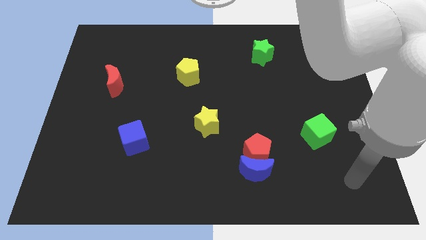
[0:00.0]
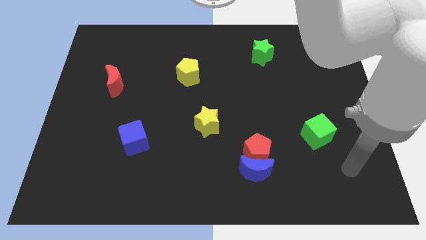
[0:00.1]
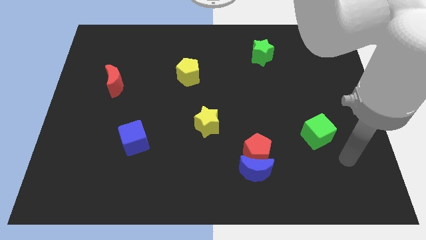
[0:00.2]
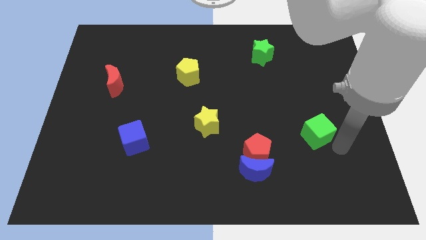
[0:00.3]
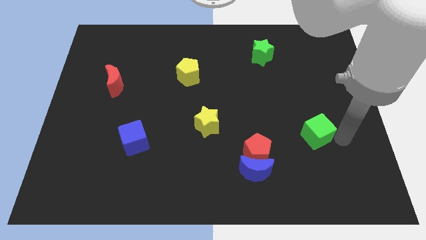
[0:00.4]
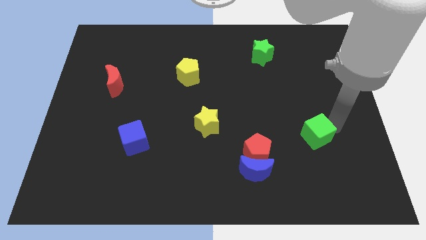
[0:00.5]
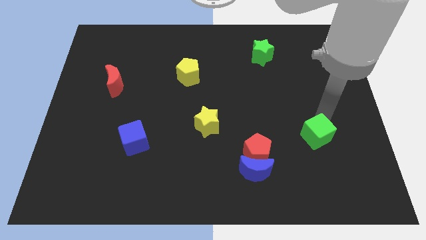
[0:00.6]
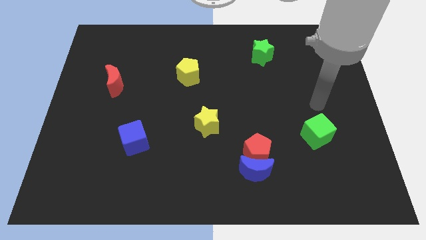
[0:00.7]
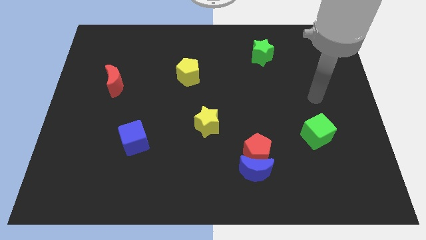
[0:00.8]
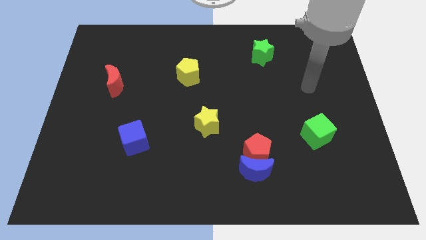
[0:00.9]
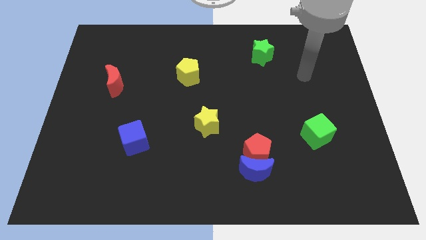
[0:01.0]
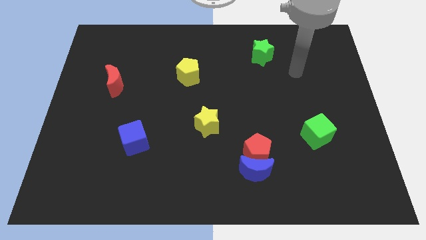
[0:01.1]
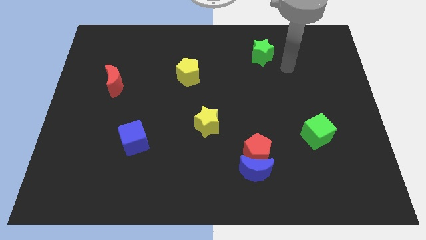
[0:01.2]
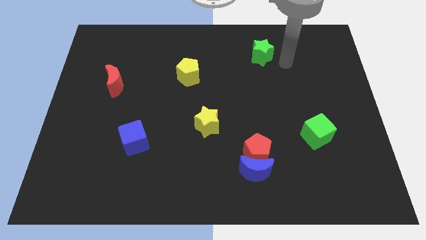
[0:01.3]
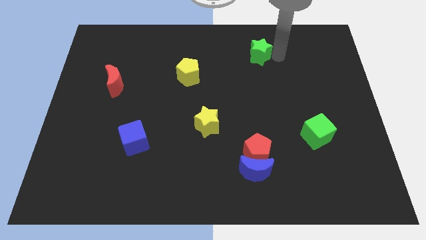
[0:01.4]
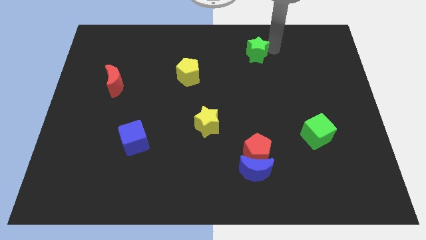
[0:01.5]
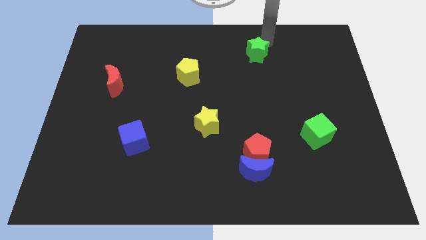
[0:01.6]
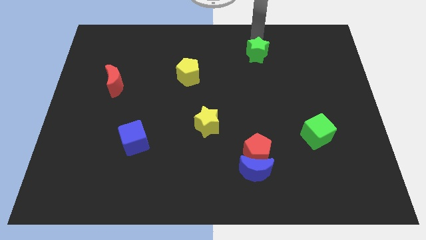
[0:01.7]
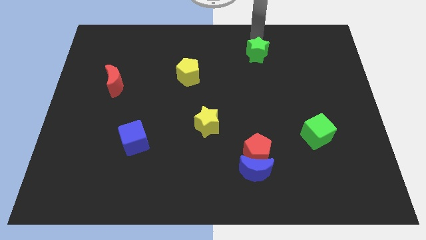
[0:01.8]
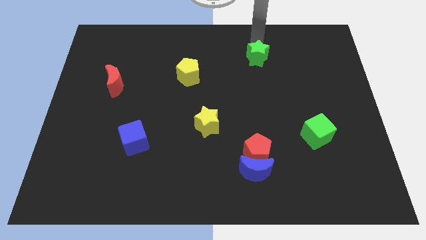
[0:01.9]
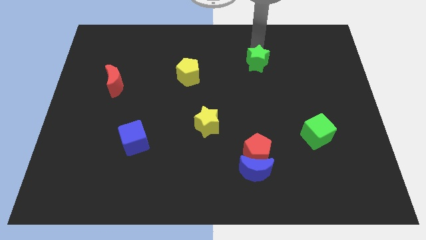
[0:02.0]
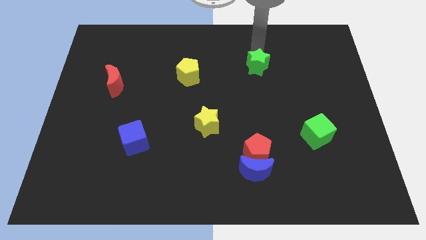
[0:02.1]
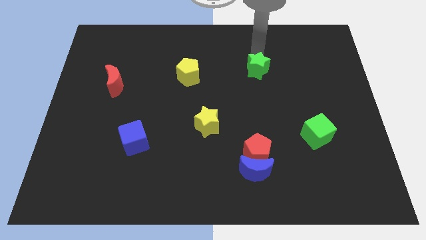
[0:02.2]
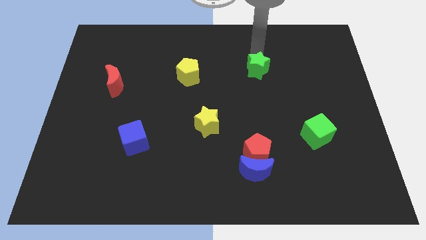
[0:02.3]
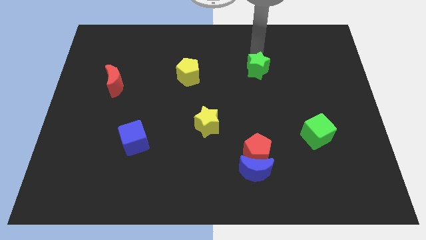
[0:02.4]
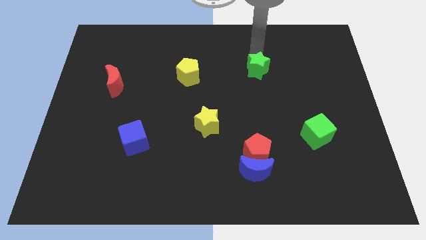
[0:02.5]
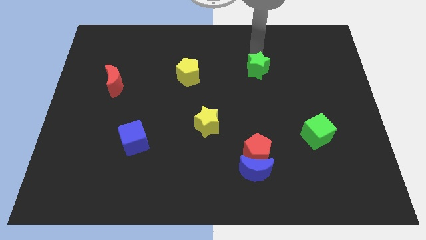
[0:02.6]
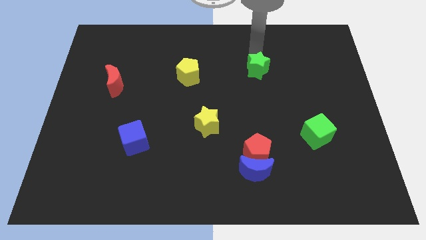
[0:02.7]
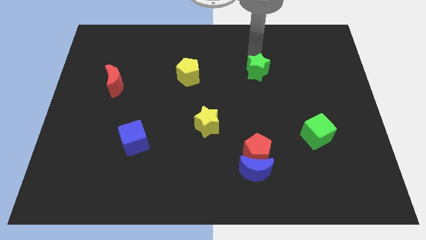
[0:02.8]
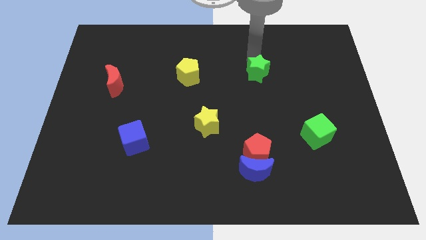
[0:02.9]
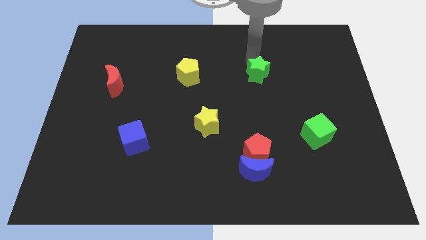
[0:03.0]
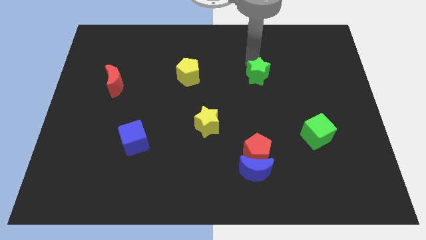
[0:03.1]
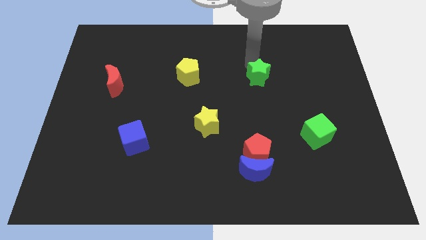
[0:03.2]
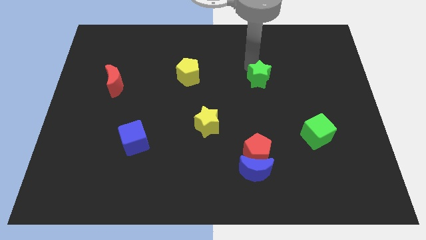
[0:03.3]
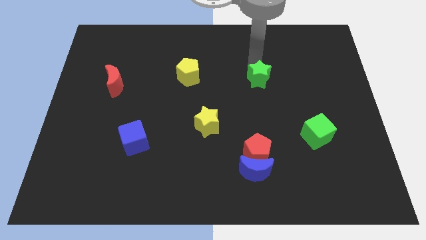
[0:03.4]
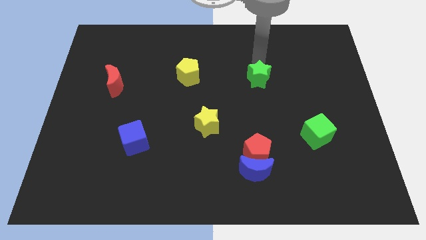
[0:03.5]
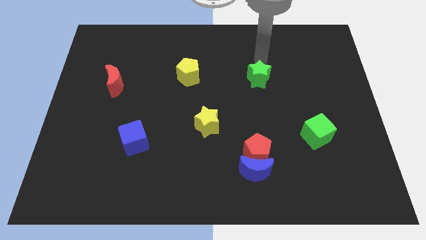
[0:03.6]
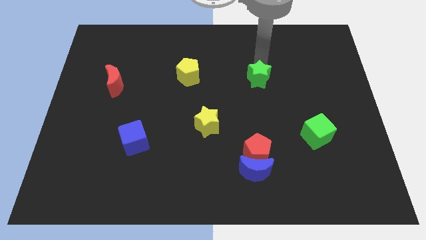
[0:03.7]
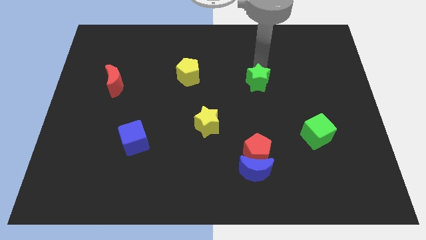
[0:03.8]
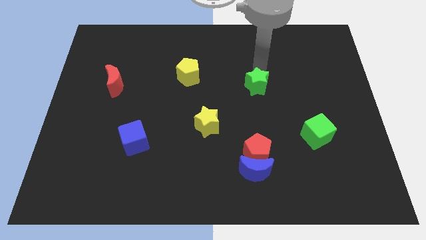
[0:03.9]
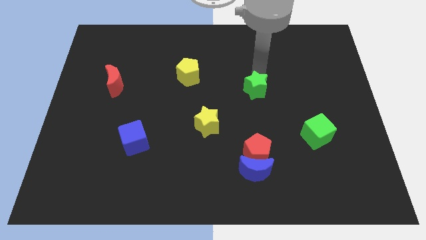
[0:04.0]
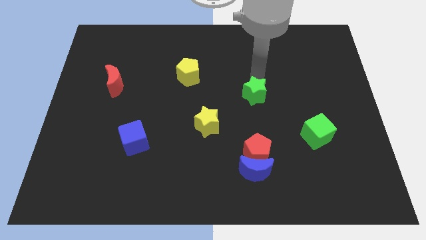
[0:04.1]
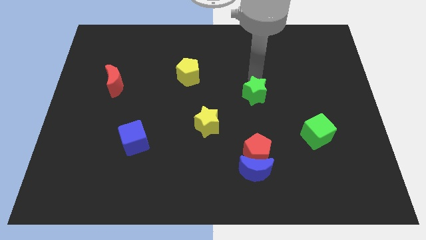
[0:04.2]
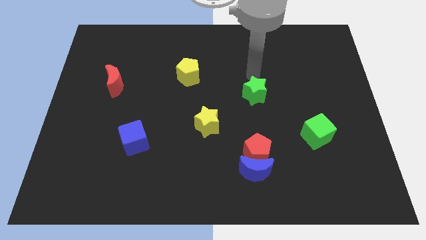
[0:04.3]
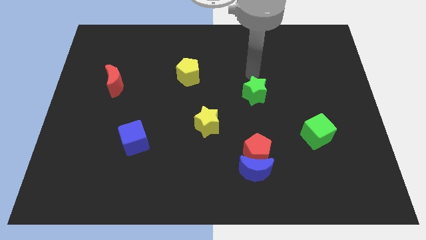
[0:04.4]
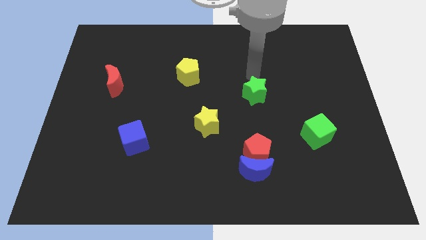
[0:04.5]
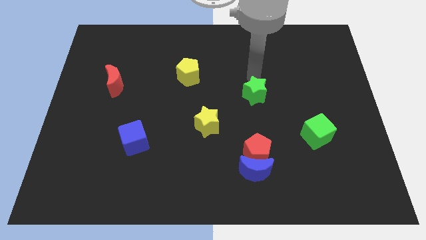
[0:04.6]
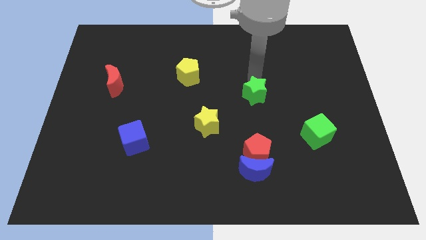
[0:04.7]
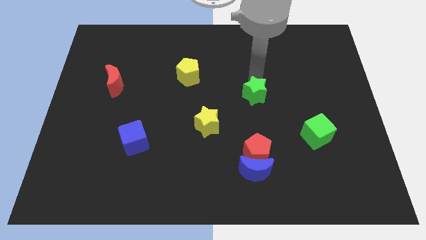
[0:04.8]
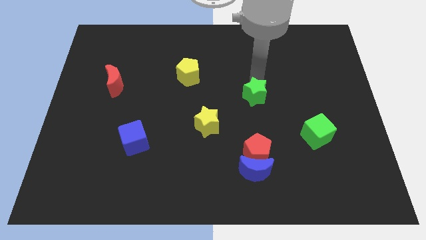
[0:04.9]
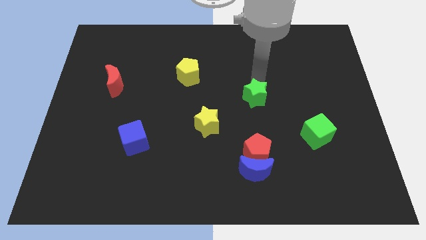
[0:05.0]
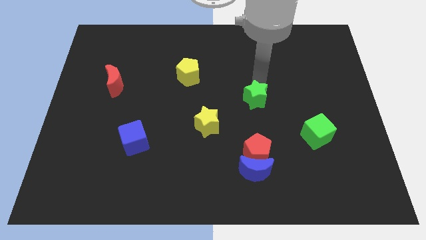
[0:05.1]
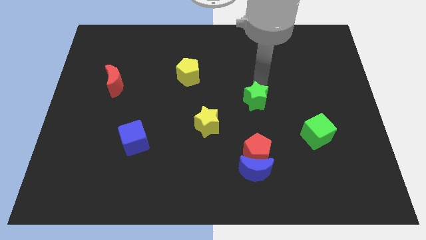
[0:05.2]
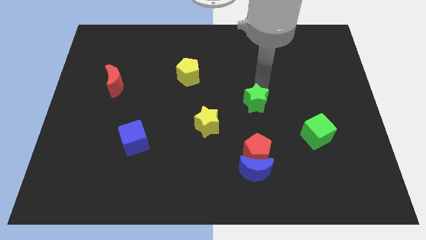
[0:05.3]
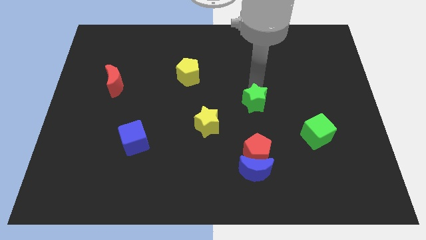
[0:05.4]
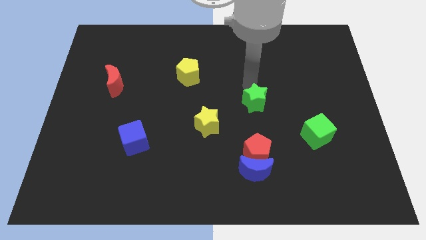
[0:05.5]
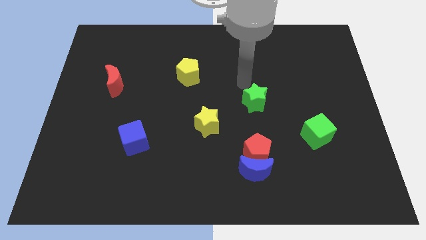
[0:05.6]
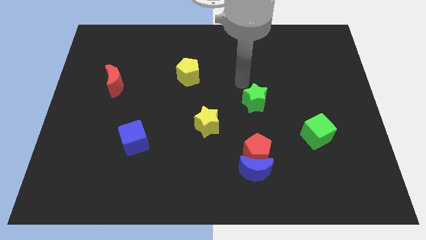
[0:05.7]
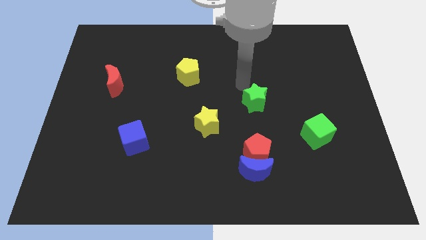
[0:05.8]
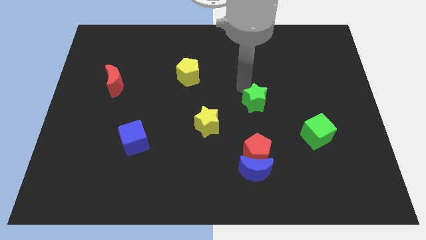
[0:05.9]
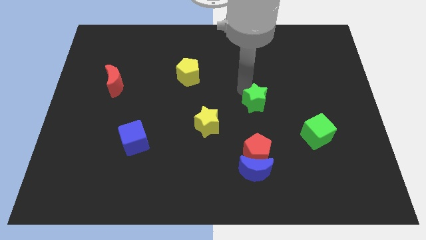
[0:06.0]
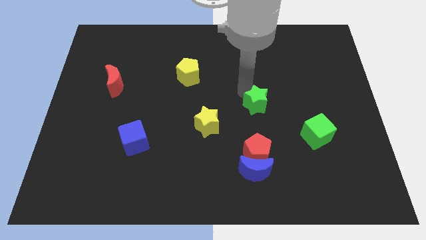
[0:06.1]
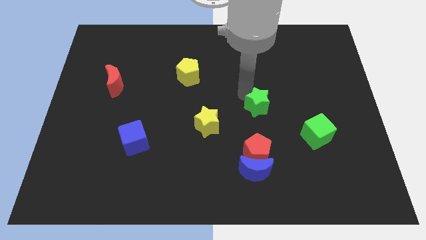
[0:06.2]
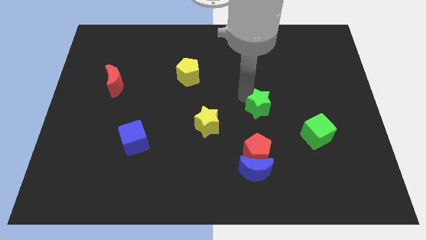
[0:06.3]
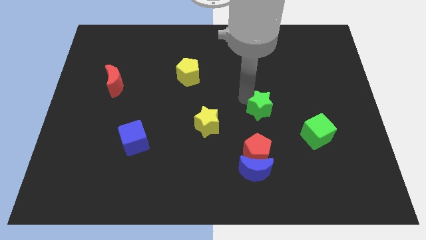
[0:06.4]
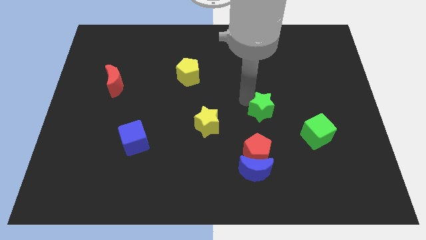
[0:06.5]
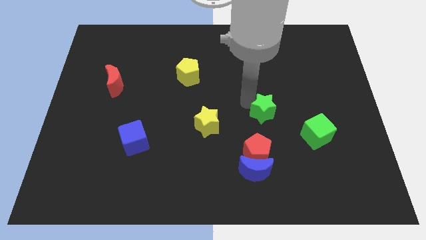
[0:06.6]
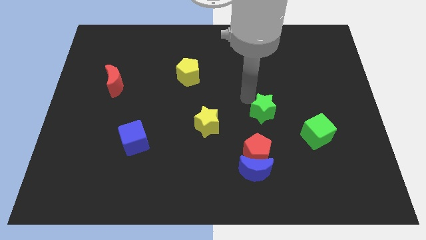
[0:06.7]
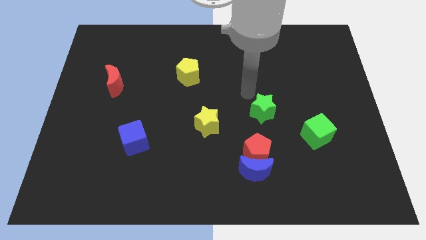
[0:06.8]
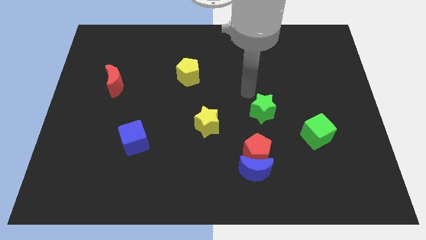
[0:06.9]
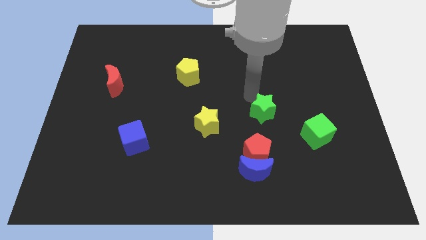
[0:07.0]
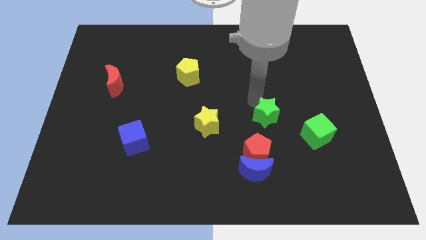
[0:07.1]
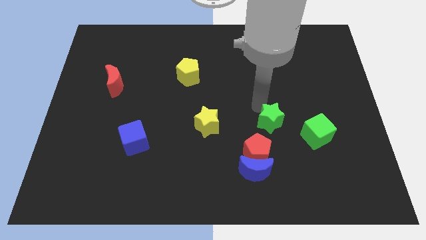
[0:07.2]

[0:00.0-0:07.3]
put the green star diagonally up and to the right of the red pentagon
